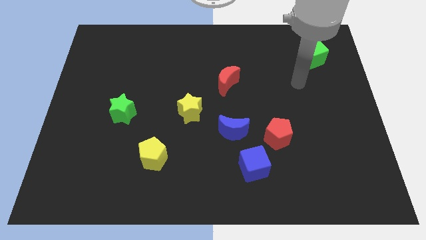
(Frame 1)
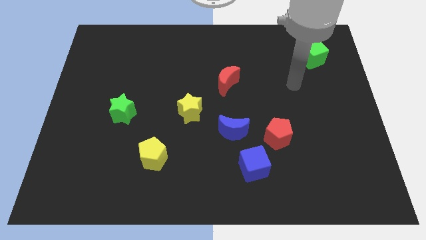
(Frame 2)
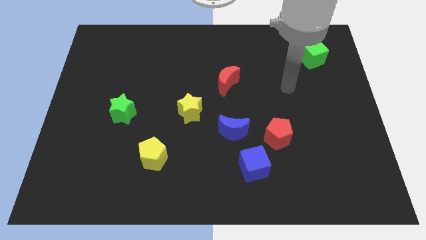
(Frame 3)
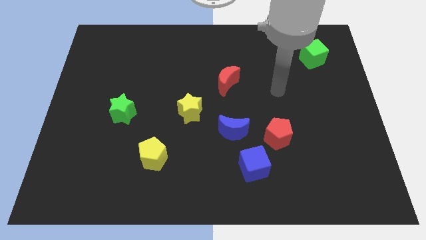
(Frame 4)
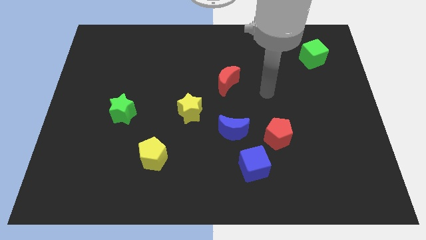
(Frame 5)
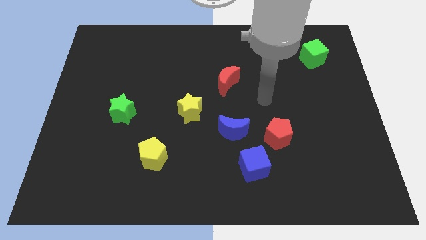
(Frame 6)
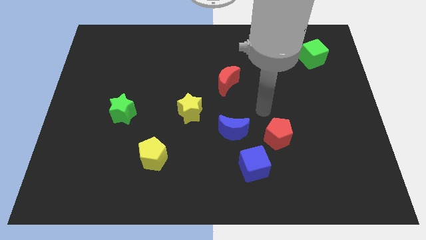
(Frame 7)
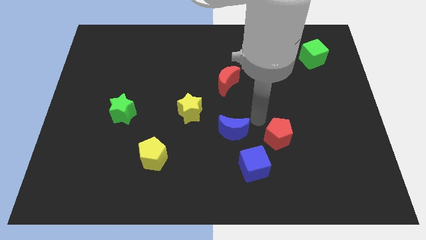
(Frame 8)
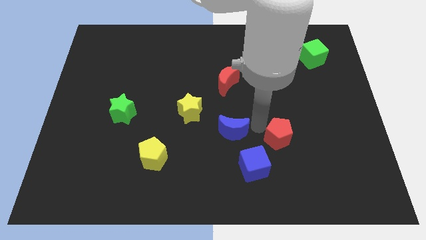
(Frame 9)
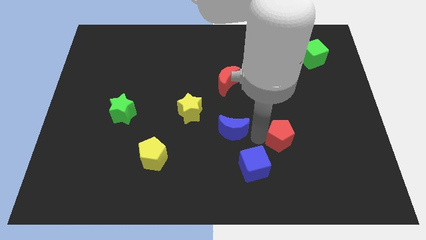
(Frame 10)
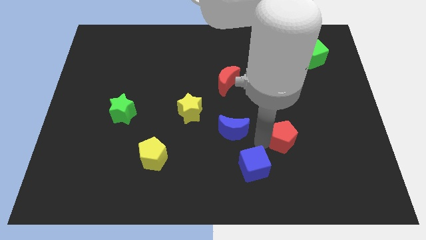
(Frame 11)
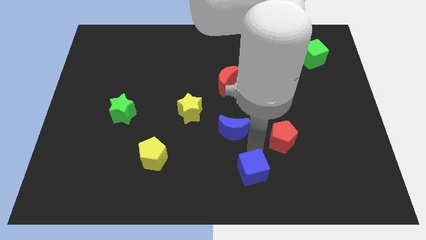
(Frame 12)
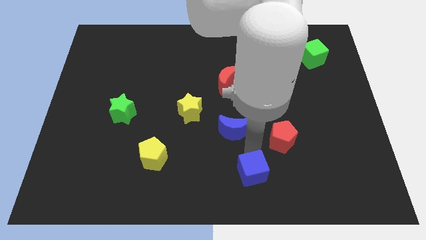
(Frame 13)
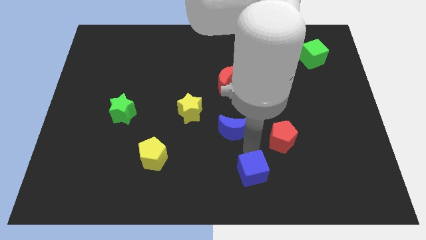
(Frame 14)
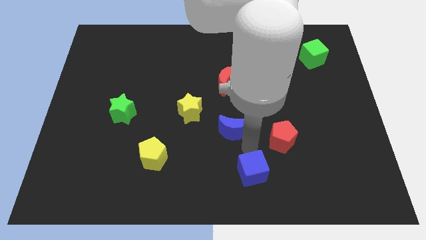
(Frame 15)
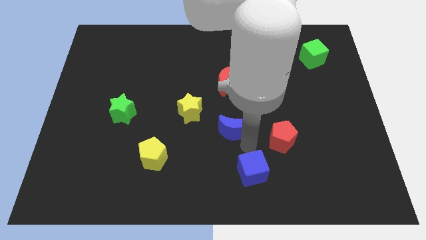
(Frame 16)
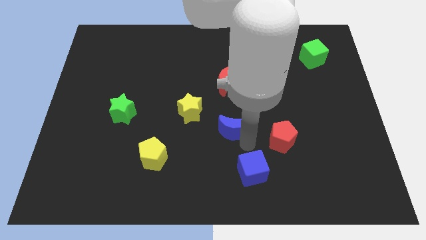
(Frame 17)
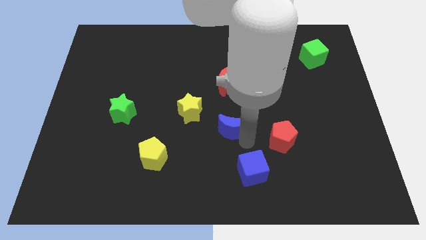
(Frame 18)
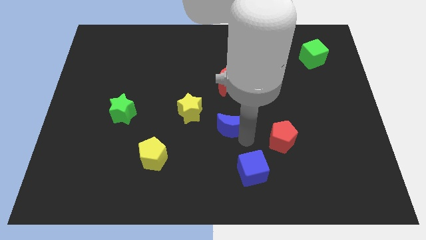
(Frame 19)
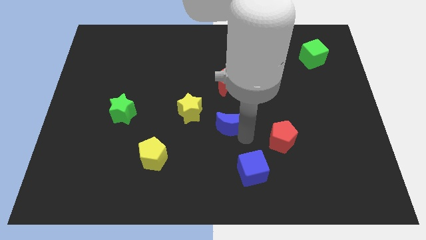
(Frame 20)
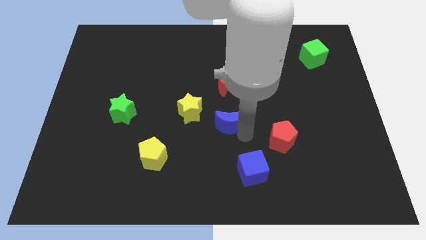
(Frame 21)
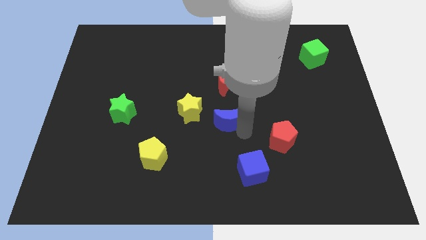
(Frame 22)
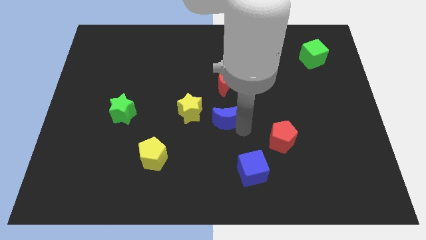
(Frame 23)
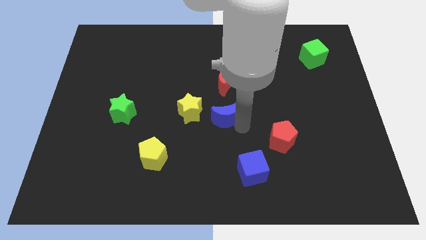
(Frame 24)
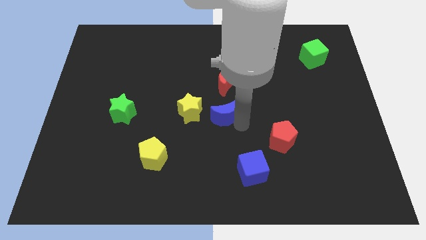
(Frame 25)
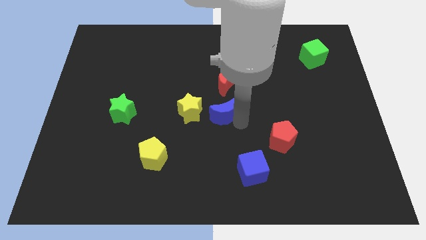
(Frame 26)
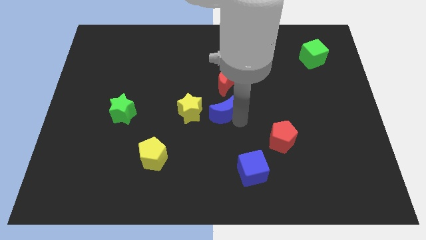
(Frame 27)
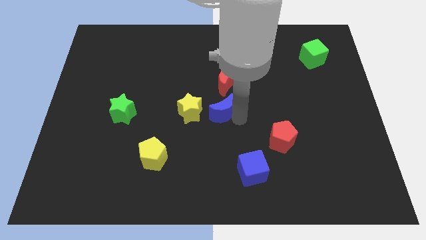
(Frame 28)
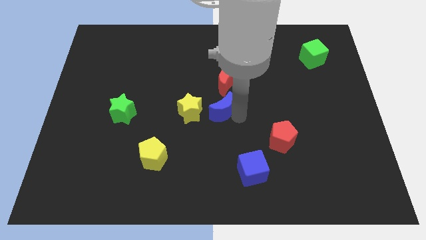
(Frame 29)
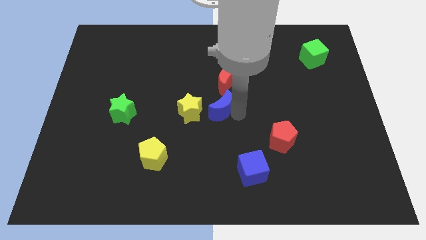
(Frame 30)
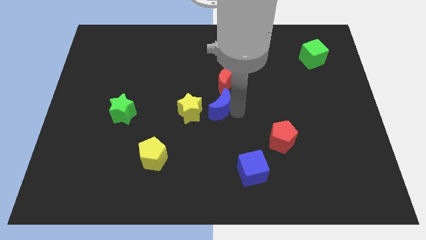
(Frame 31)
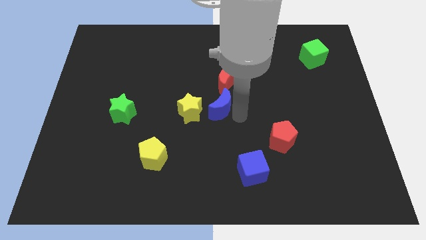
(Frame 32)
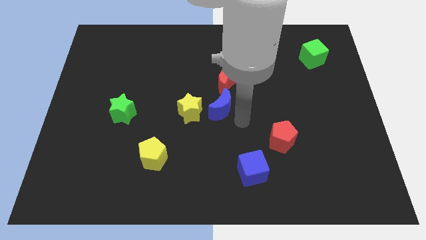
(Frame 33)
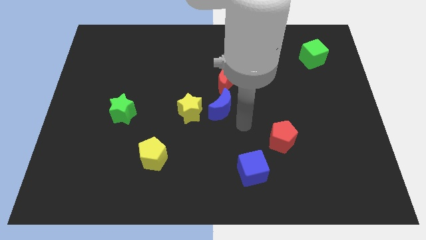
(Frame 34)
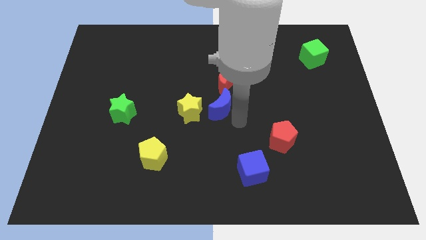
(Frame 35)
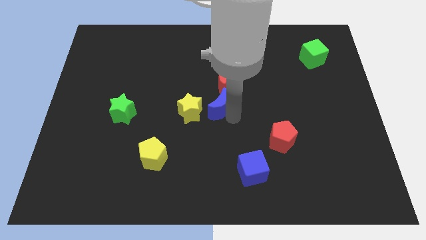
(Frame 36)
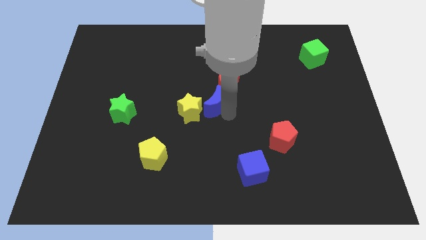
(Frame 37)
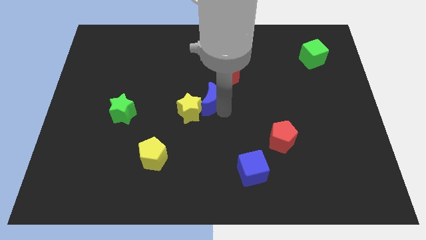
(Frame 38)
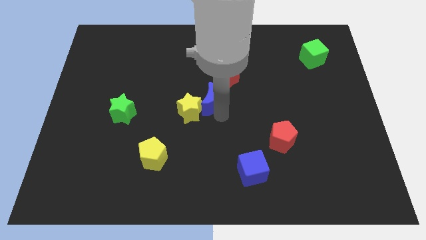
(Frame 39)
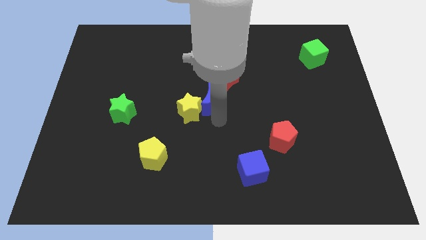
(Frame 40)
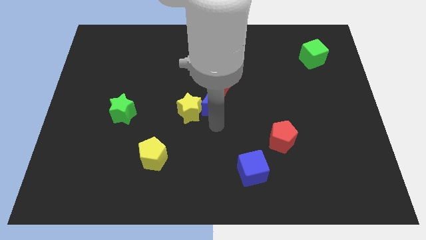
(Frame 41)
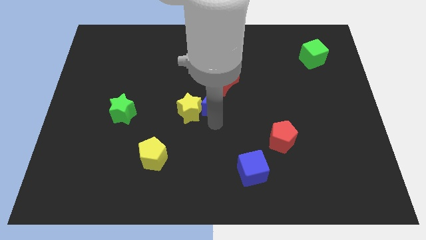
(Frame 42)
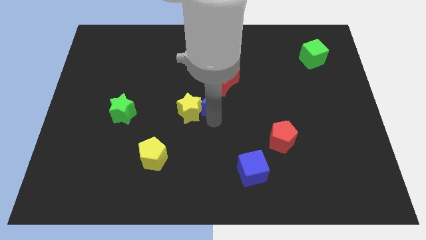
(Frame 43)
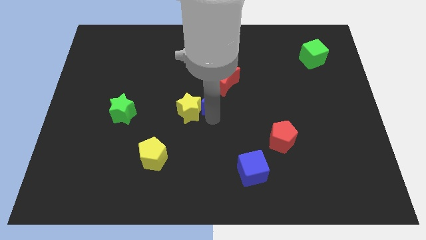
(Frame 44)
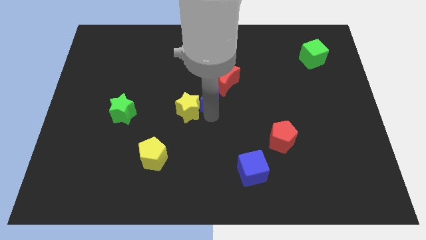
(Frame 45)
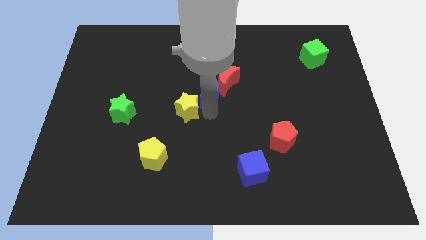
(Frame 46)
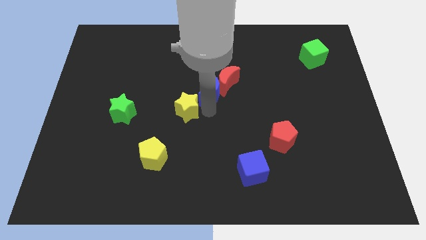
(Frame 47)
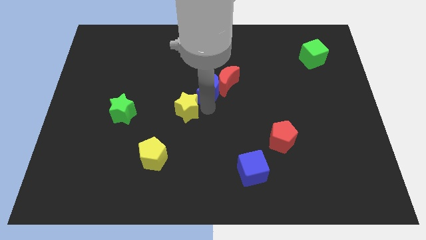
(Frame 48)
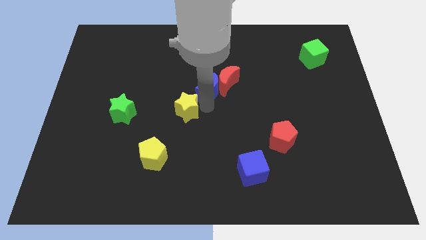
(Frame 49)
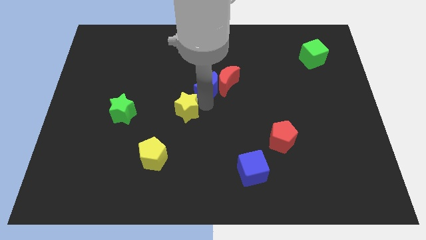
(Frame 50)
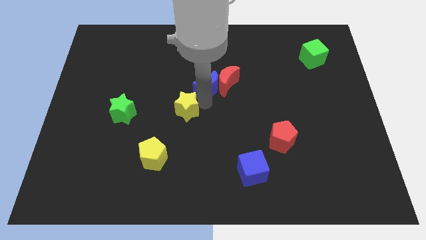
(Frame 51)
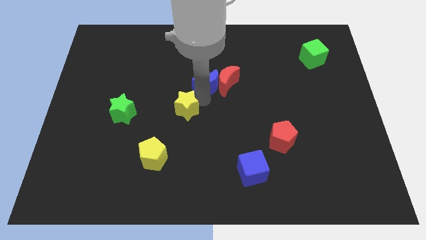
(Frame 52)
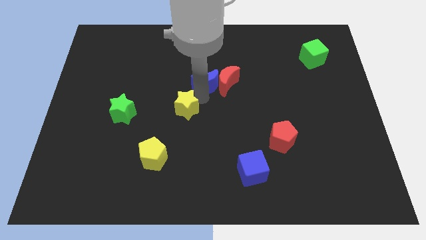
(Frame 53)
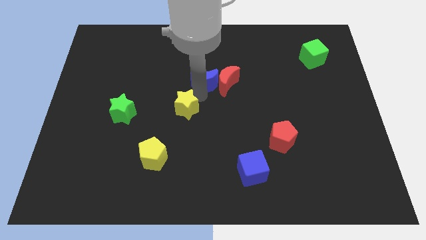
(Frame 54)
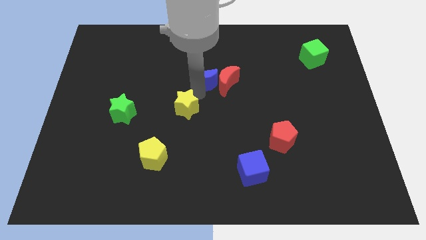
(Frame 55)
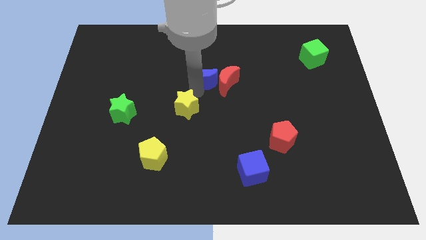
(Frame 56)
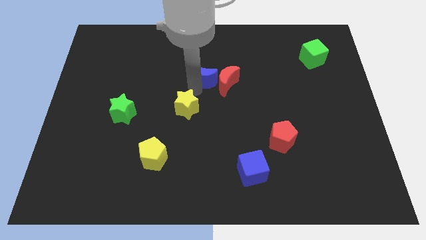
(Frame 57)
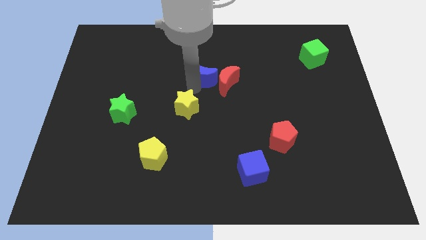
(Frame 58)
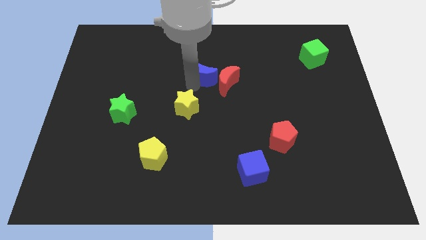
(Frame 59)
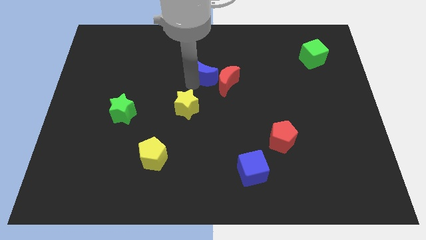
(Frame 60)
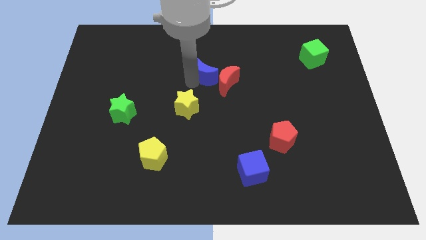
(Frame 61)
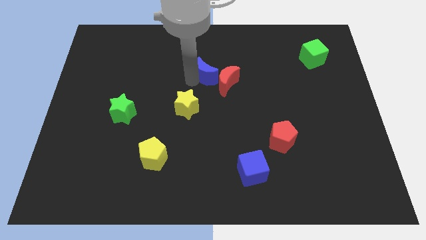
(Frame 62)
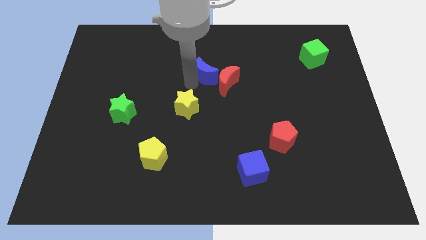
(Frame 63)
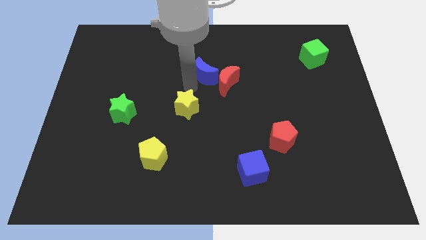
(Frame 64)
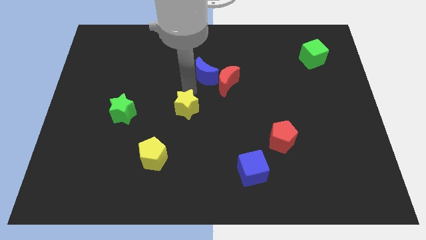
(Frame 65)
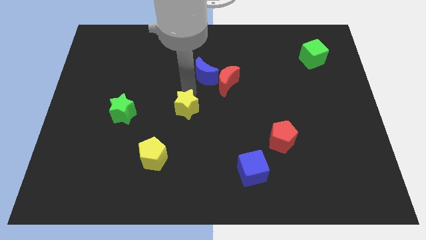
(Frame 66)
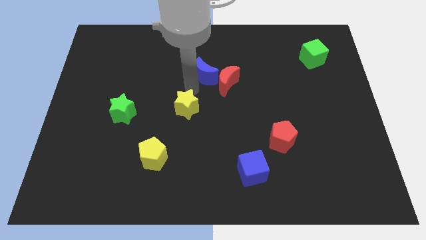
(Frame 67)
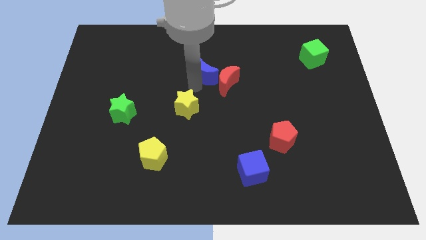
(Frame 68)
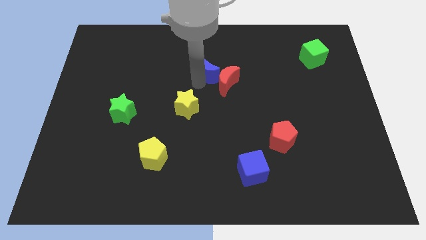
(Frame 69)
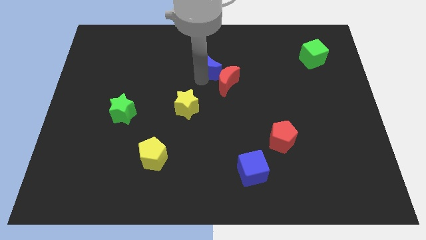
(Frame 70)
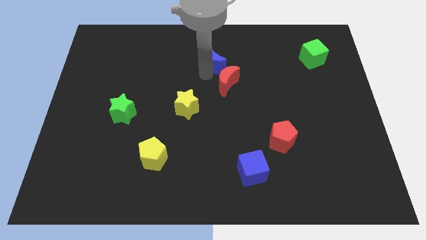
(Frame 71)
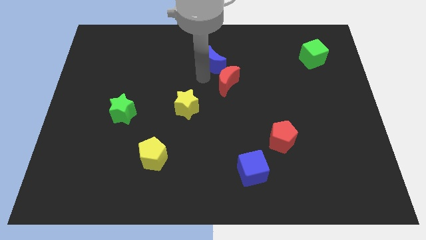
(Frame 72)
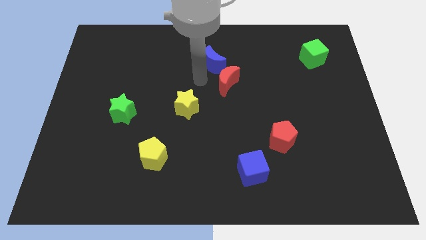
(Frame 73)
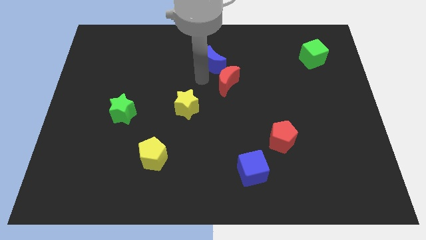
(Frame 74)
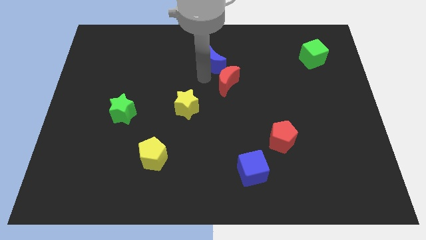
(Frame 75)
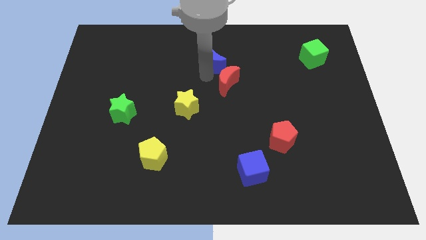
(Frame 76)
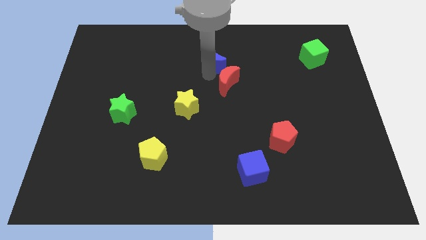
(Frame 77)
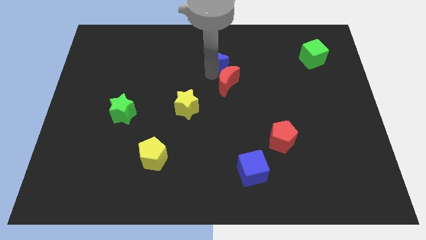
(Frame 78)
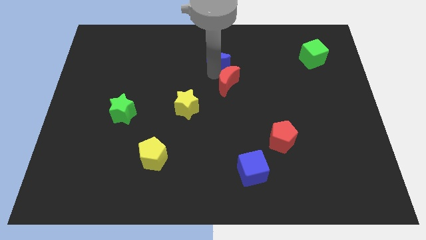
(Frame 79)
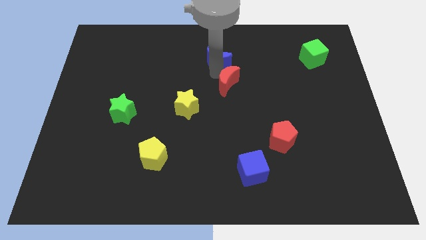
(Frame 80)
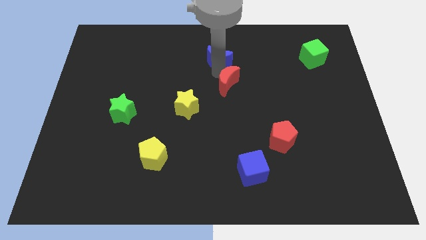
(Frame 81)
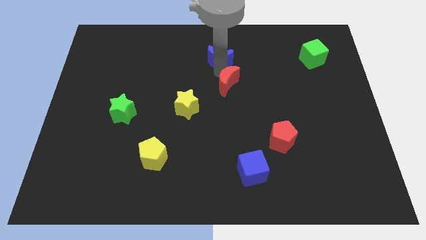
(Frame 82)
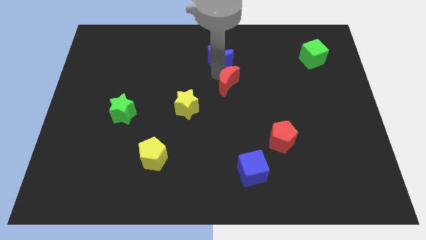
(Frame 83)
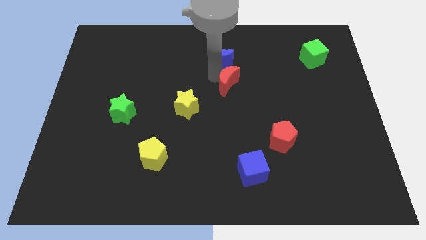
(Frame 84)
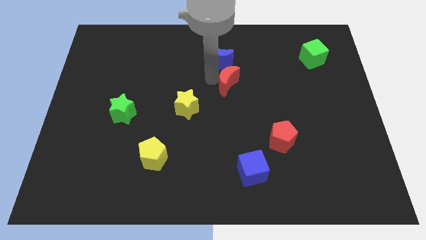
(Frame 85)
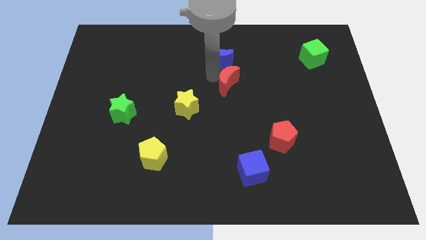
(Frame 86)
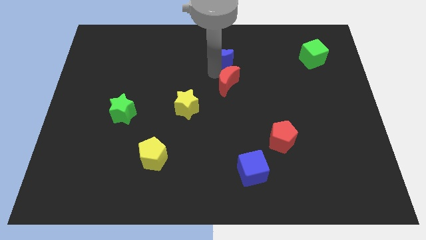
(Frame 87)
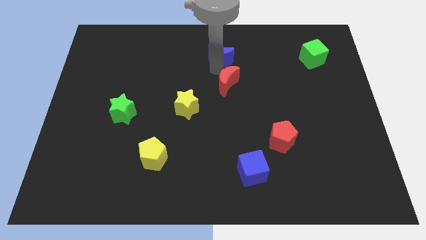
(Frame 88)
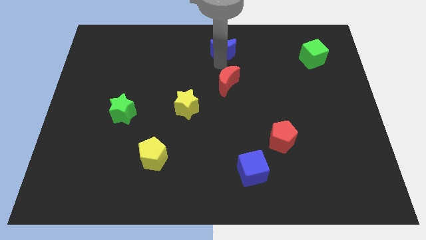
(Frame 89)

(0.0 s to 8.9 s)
move the blue moon to the top side
